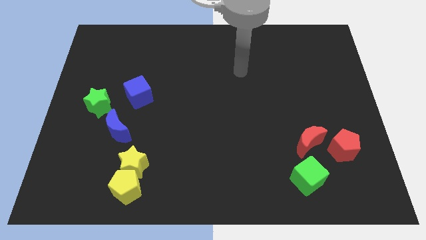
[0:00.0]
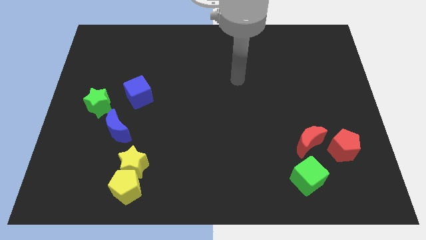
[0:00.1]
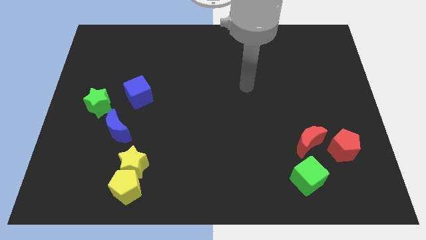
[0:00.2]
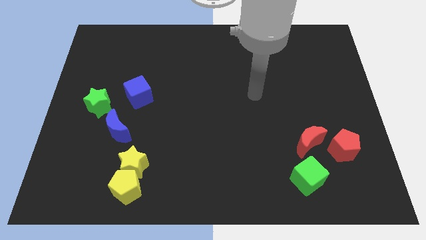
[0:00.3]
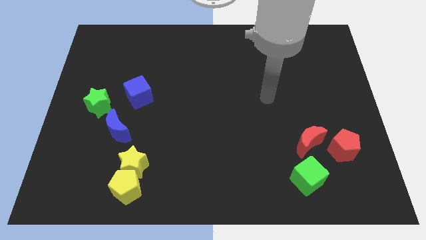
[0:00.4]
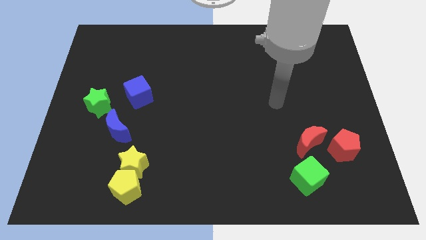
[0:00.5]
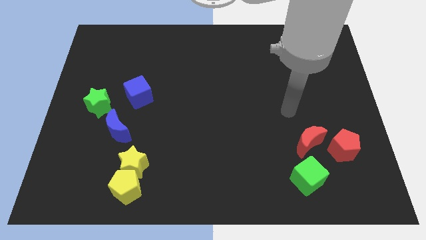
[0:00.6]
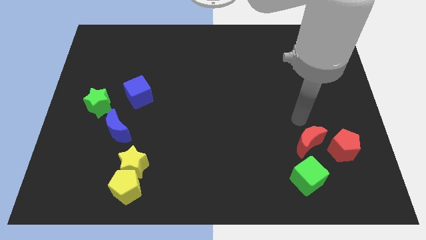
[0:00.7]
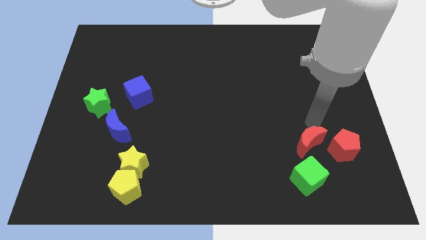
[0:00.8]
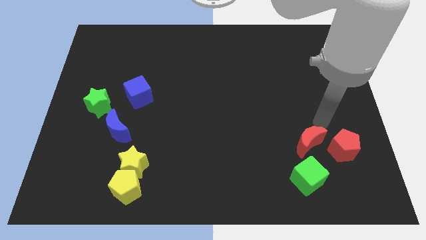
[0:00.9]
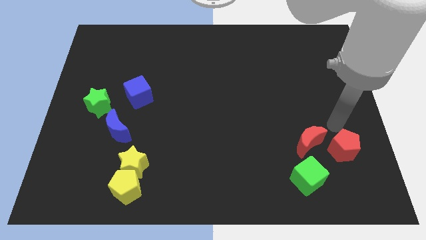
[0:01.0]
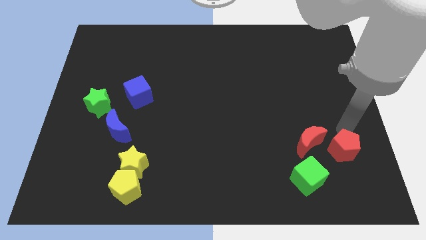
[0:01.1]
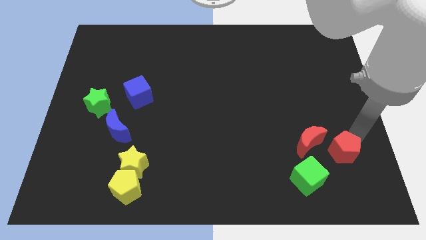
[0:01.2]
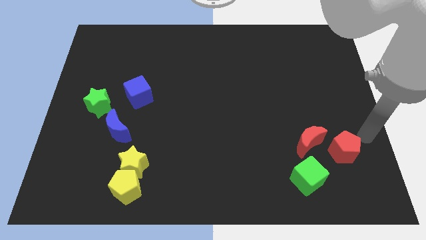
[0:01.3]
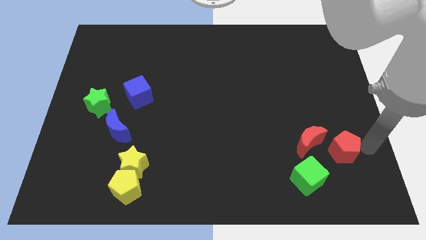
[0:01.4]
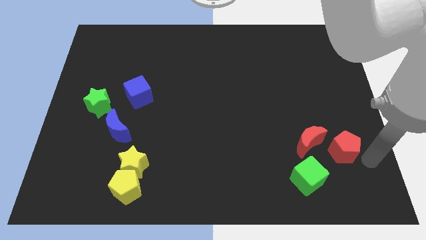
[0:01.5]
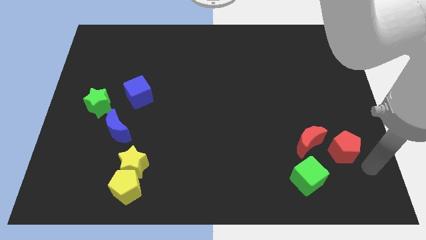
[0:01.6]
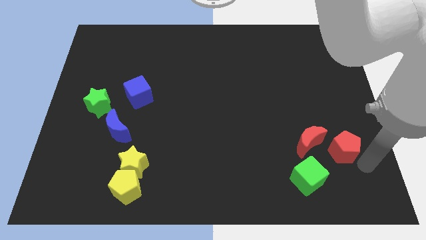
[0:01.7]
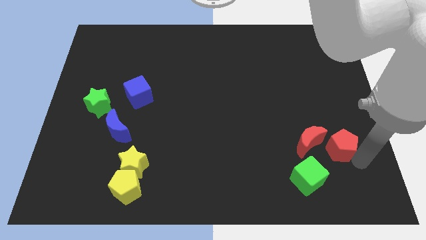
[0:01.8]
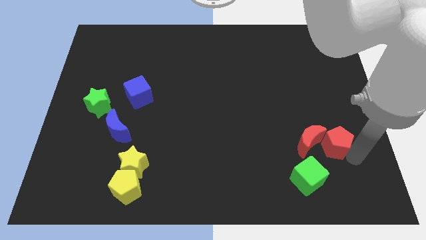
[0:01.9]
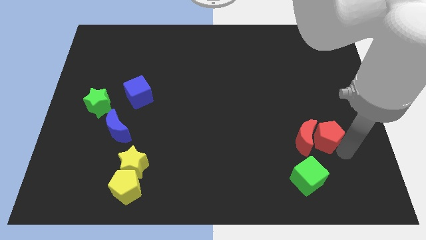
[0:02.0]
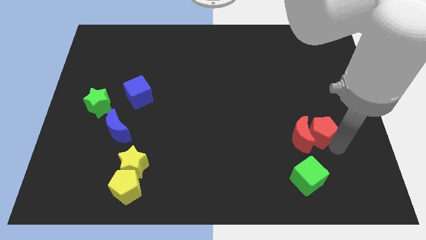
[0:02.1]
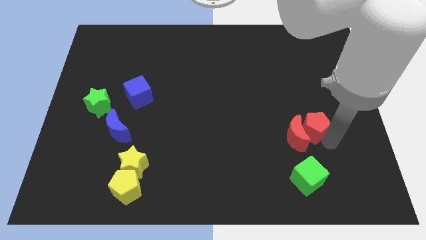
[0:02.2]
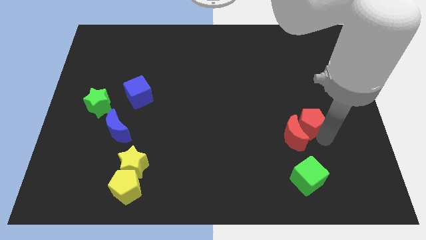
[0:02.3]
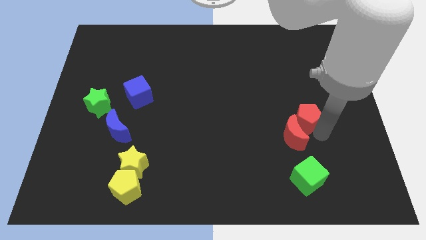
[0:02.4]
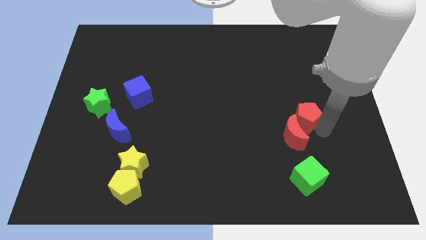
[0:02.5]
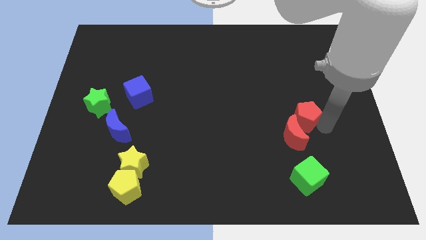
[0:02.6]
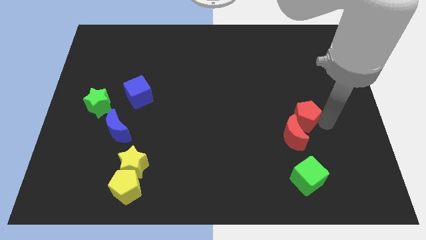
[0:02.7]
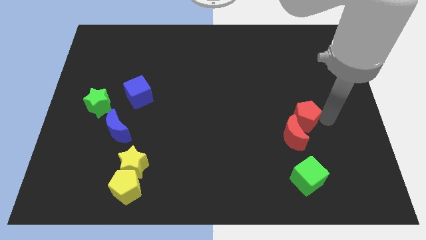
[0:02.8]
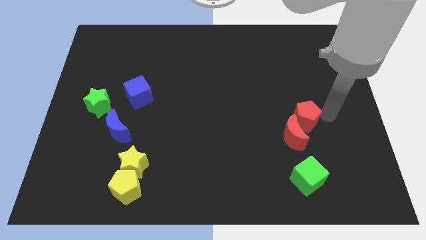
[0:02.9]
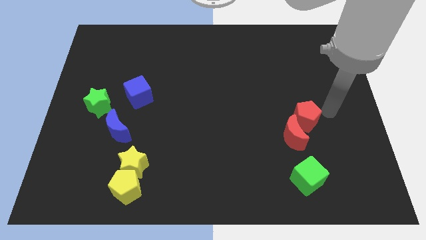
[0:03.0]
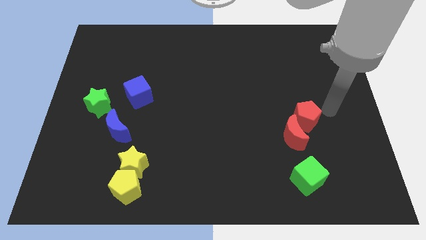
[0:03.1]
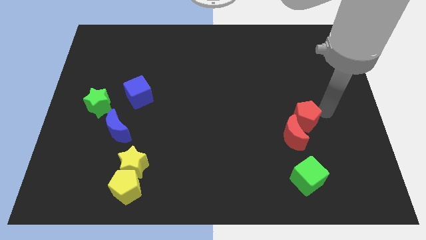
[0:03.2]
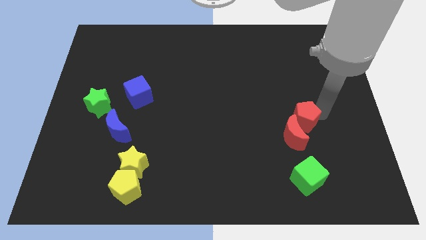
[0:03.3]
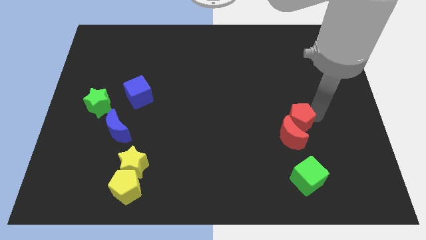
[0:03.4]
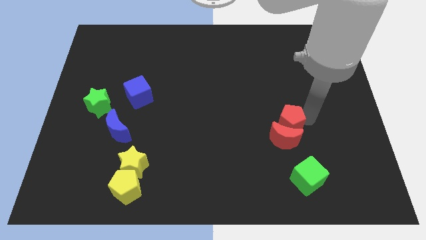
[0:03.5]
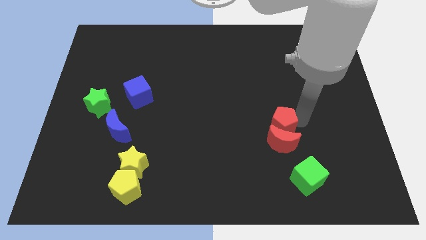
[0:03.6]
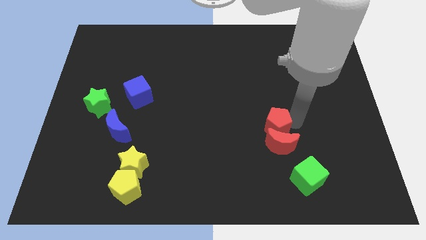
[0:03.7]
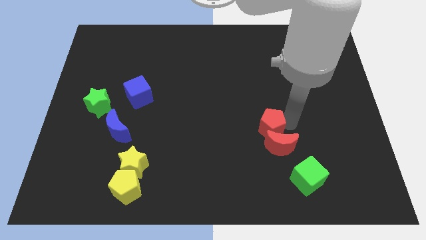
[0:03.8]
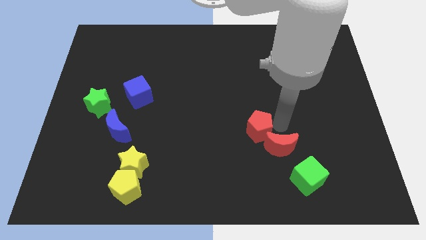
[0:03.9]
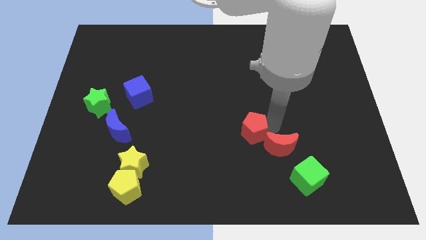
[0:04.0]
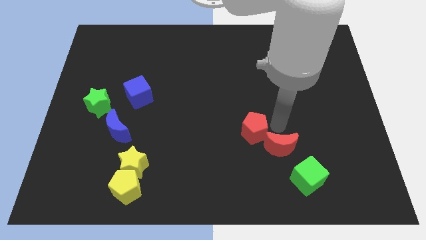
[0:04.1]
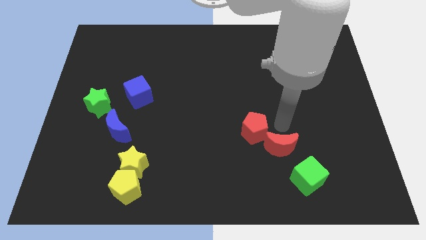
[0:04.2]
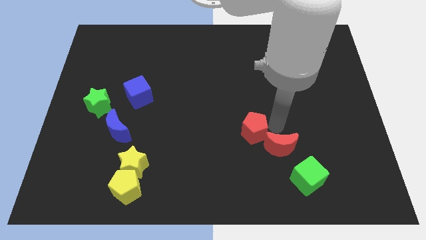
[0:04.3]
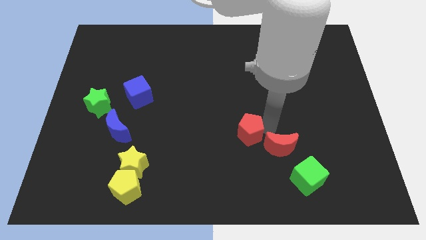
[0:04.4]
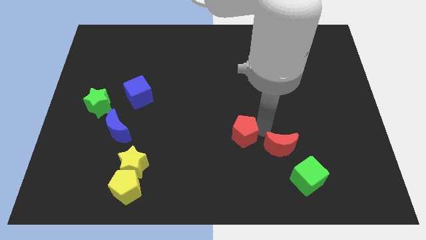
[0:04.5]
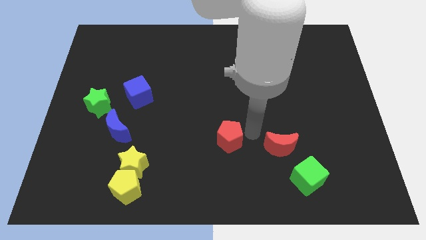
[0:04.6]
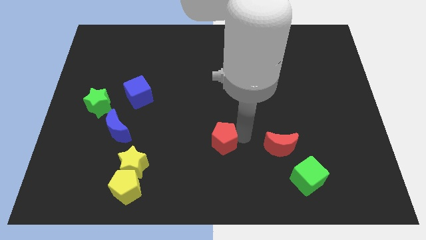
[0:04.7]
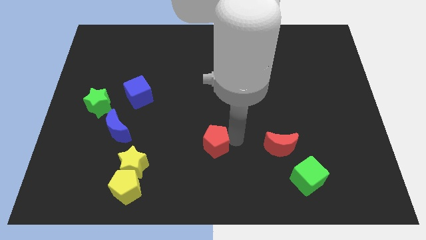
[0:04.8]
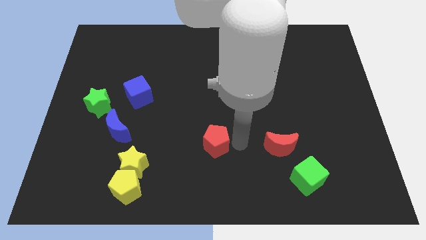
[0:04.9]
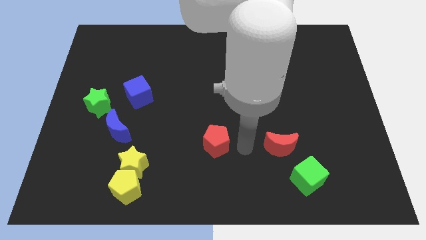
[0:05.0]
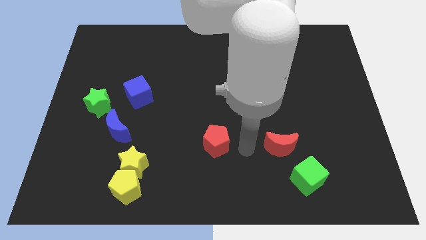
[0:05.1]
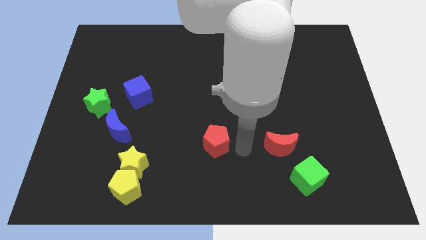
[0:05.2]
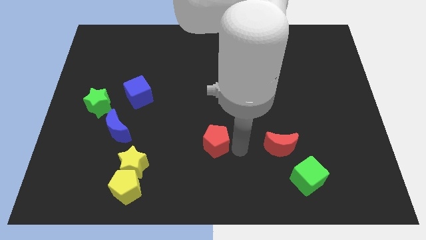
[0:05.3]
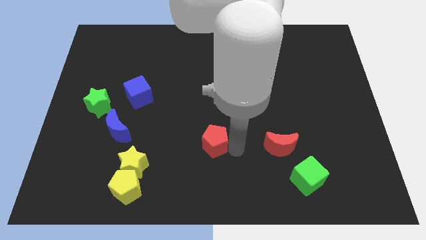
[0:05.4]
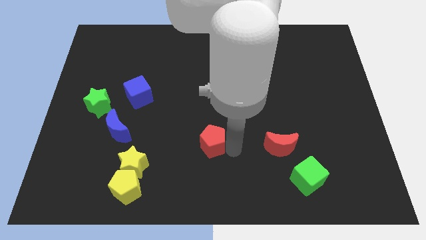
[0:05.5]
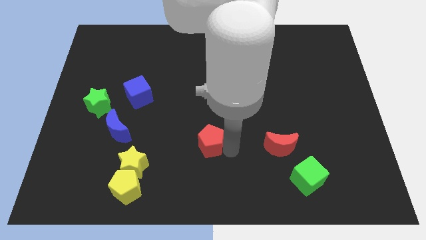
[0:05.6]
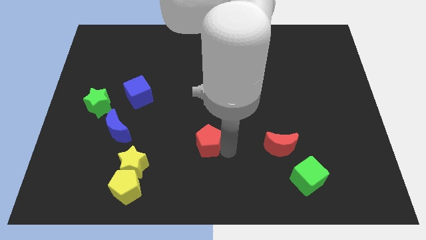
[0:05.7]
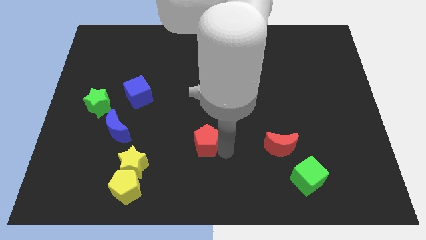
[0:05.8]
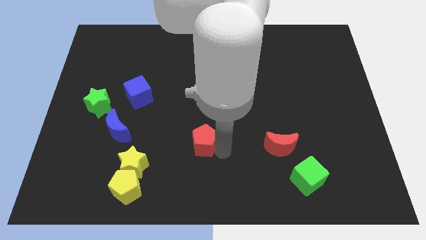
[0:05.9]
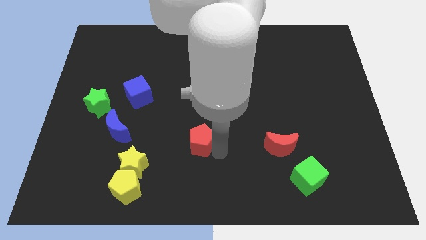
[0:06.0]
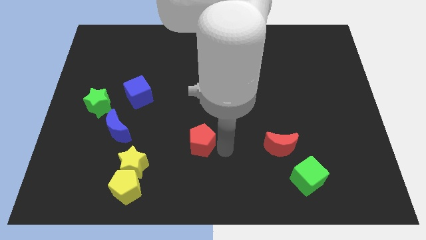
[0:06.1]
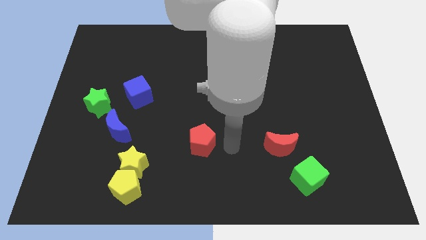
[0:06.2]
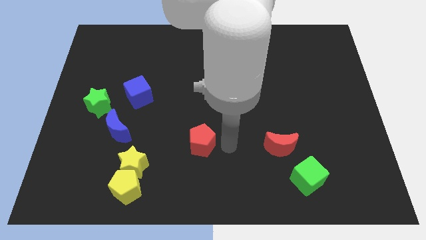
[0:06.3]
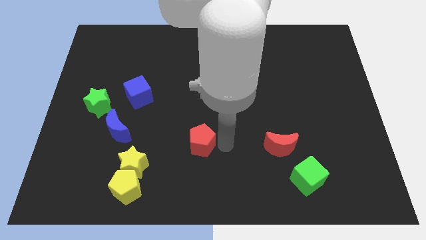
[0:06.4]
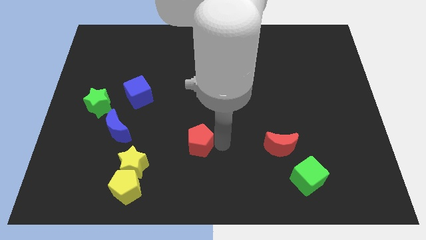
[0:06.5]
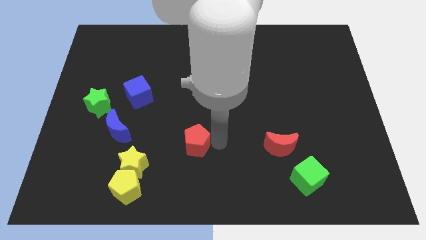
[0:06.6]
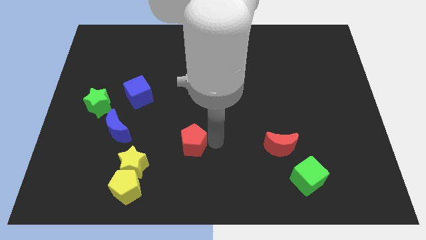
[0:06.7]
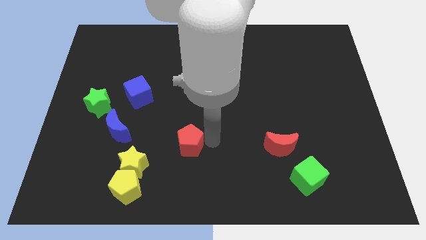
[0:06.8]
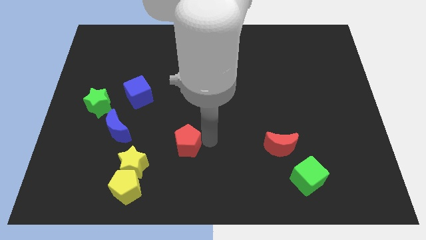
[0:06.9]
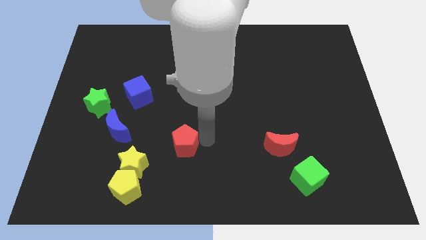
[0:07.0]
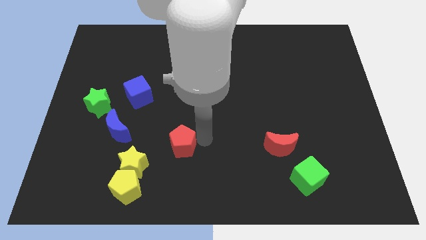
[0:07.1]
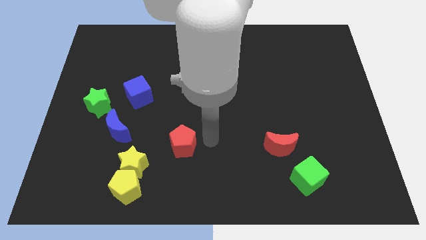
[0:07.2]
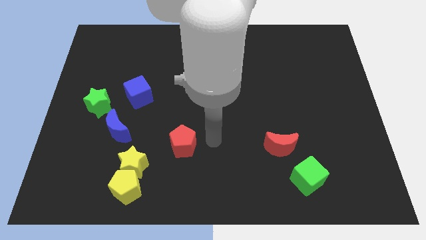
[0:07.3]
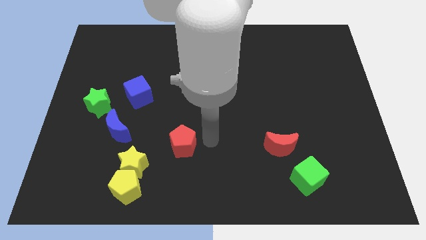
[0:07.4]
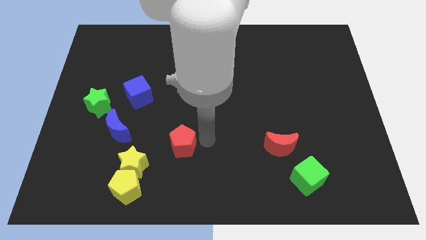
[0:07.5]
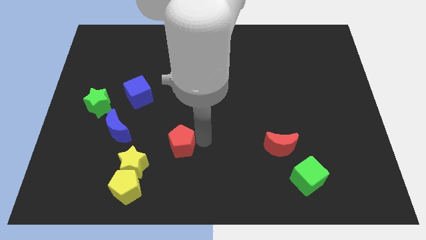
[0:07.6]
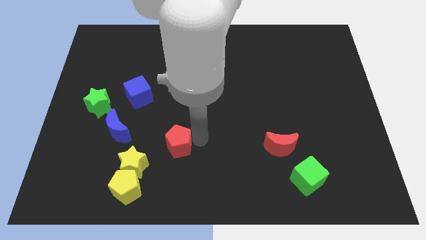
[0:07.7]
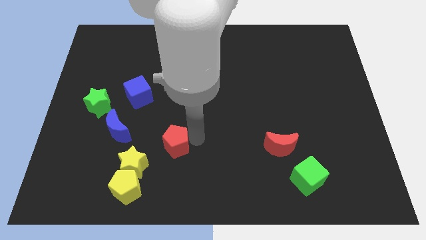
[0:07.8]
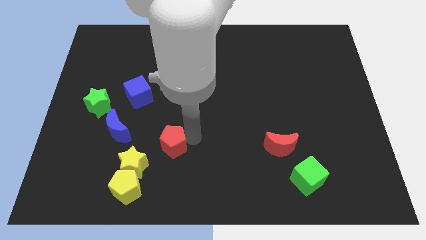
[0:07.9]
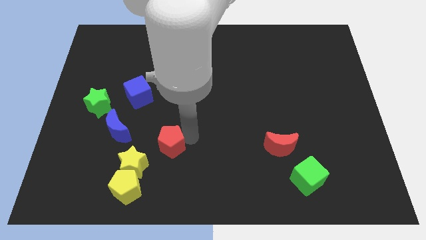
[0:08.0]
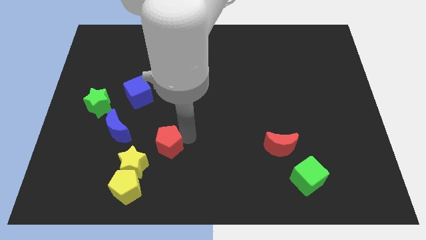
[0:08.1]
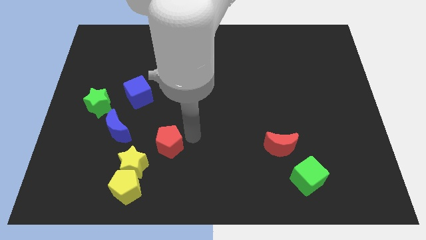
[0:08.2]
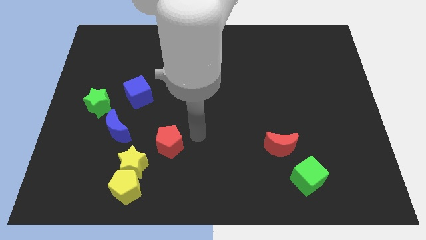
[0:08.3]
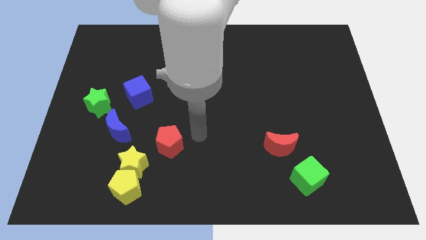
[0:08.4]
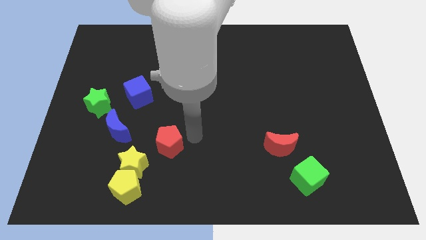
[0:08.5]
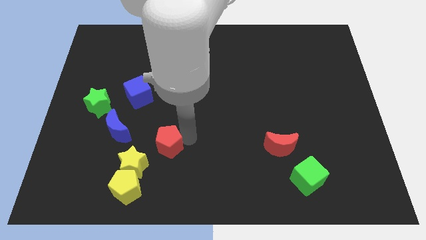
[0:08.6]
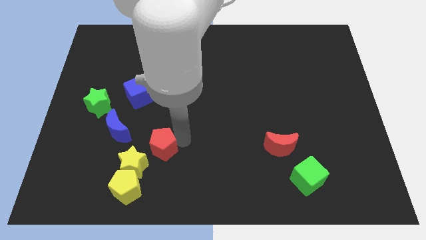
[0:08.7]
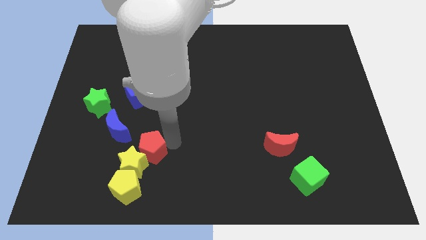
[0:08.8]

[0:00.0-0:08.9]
move the red pentagon to the yellow star
